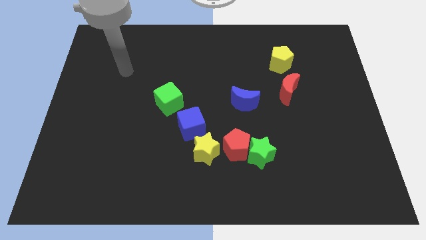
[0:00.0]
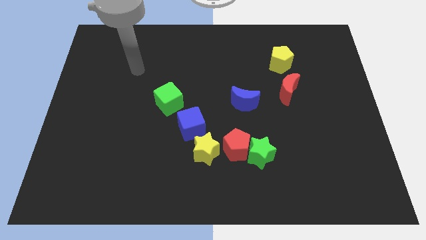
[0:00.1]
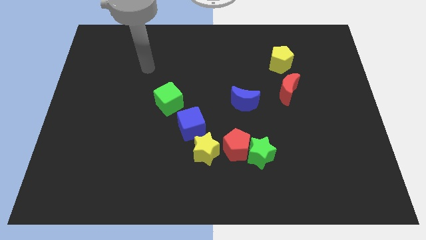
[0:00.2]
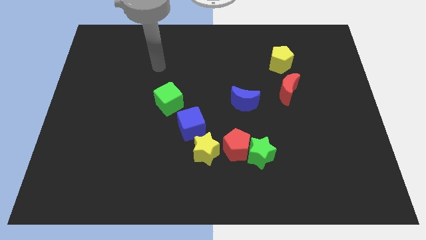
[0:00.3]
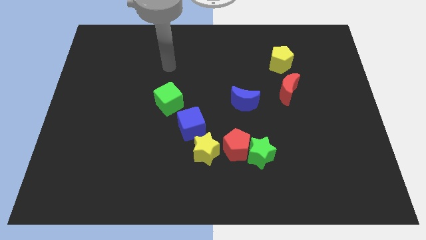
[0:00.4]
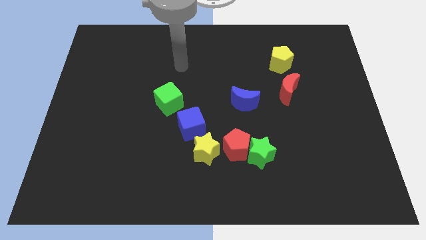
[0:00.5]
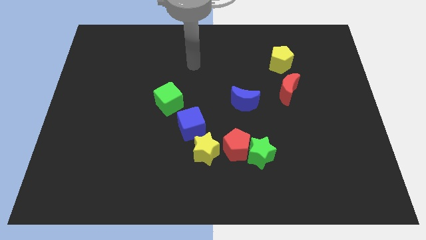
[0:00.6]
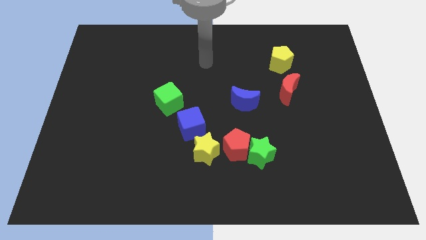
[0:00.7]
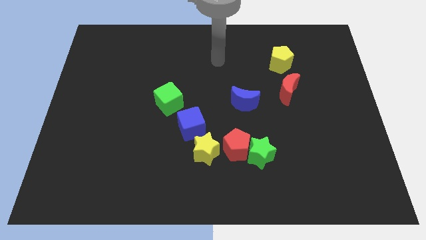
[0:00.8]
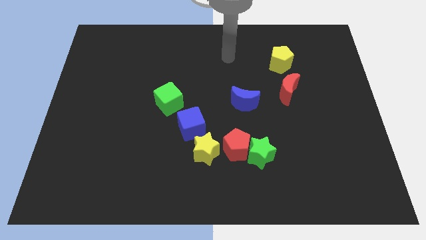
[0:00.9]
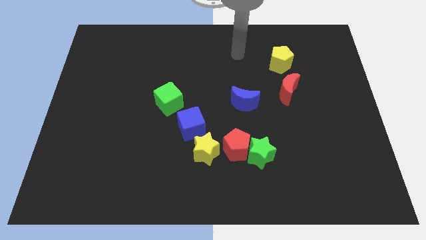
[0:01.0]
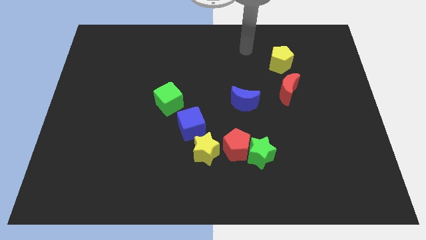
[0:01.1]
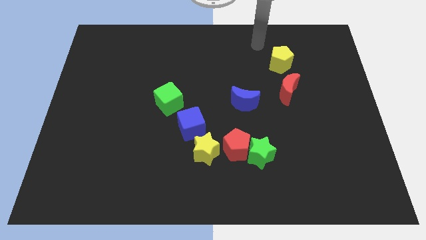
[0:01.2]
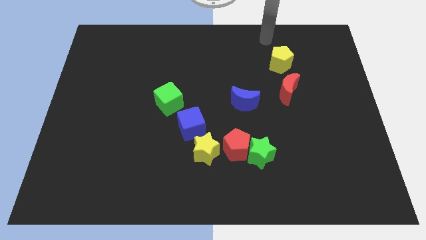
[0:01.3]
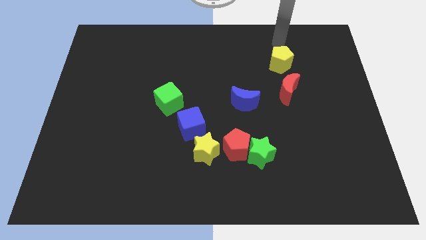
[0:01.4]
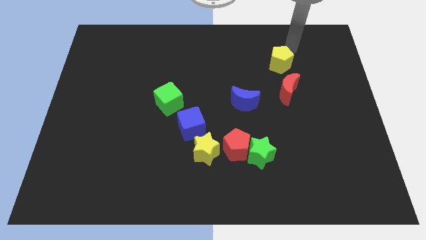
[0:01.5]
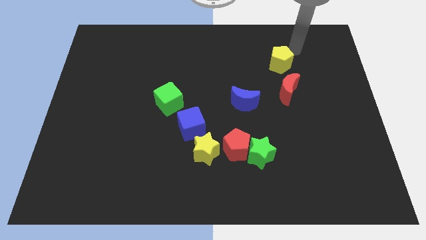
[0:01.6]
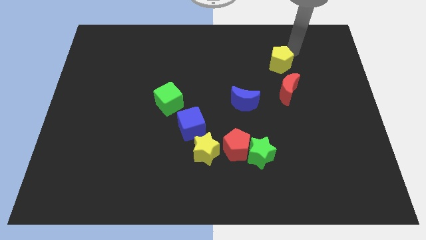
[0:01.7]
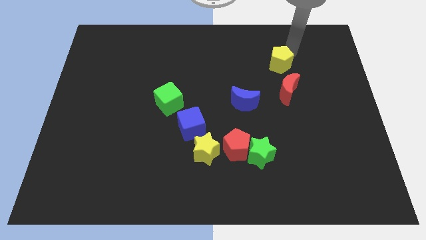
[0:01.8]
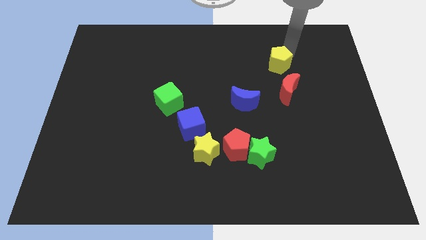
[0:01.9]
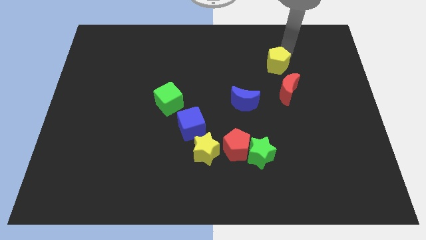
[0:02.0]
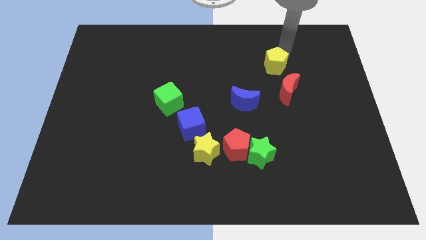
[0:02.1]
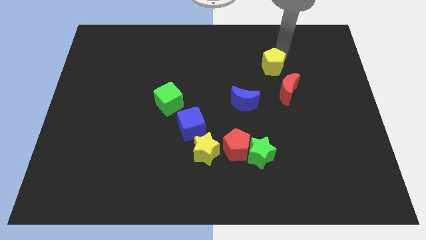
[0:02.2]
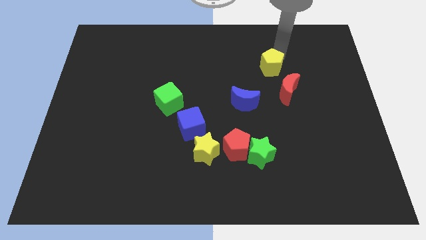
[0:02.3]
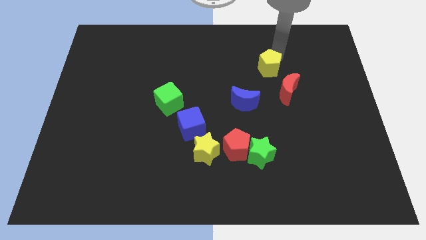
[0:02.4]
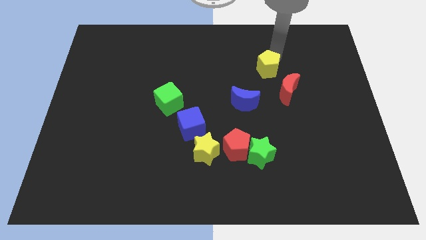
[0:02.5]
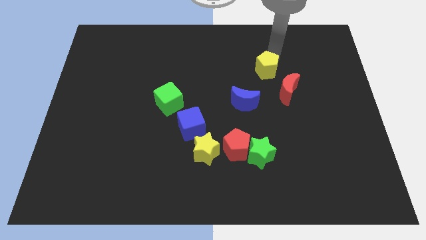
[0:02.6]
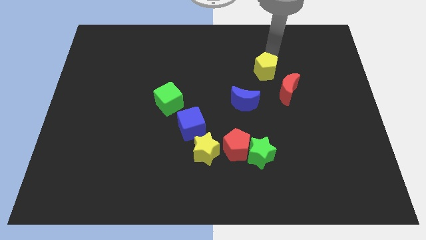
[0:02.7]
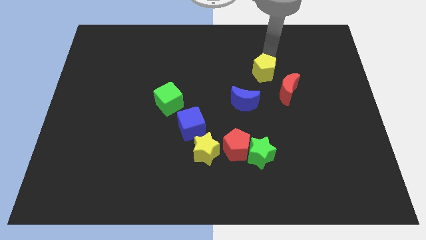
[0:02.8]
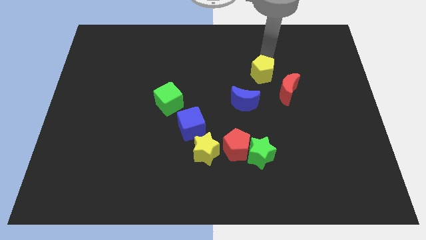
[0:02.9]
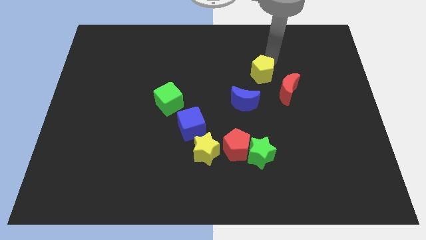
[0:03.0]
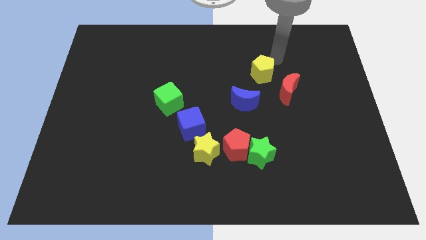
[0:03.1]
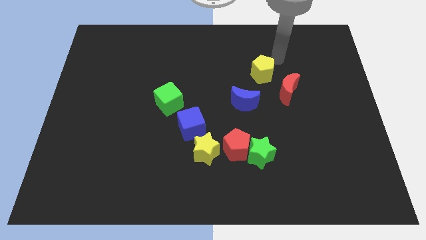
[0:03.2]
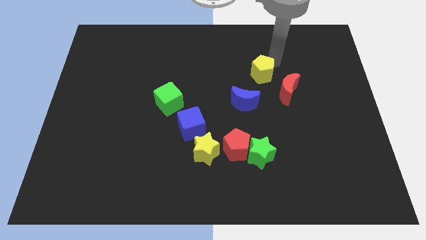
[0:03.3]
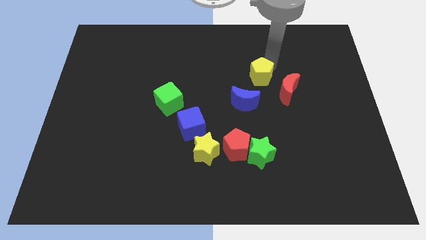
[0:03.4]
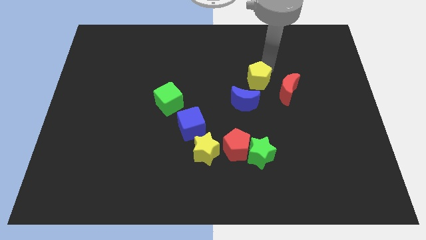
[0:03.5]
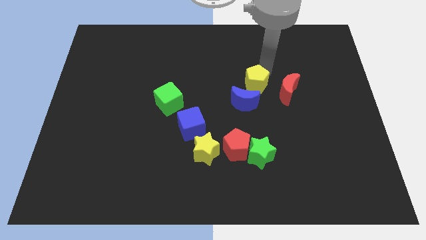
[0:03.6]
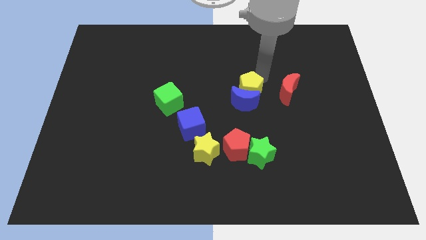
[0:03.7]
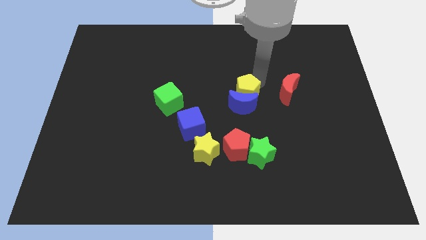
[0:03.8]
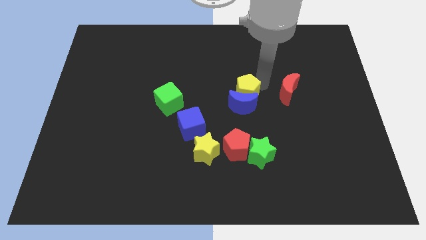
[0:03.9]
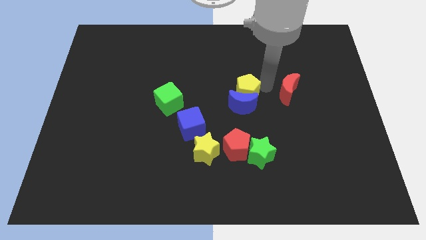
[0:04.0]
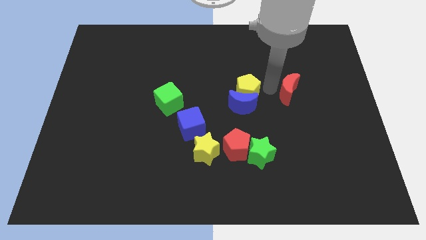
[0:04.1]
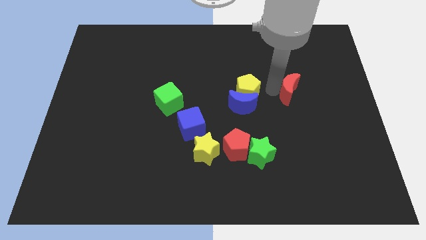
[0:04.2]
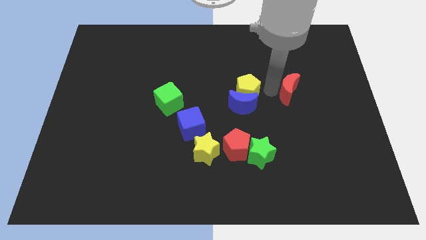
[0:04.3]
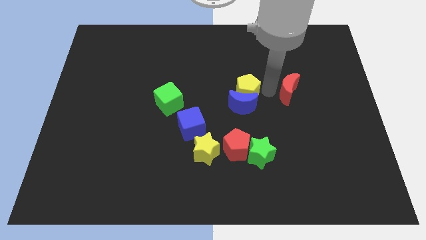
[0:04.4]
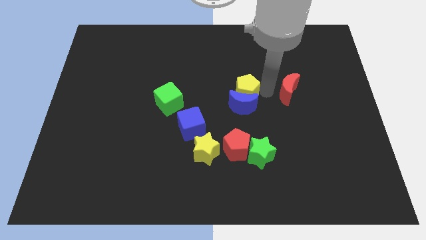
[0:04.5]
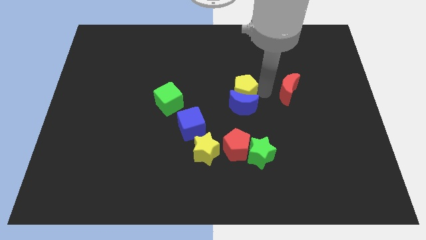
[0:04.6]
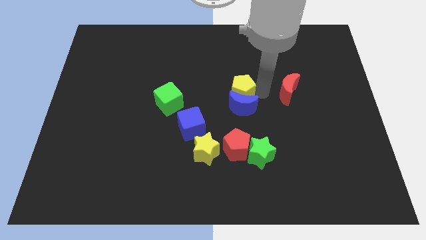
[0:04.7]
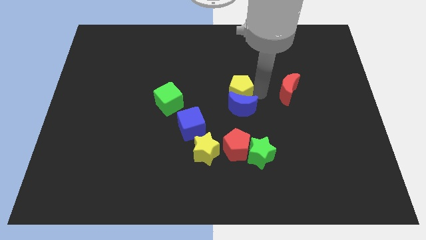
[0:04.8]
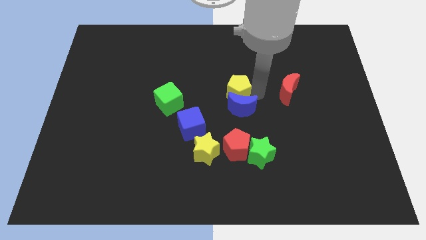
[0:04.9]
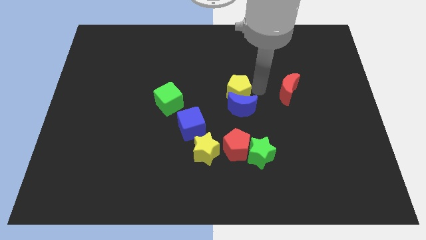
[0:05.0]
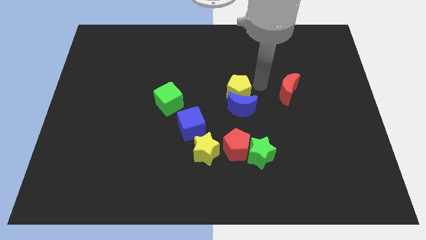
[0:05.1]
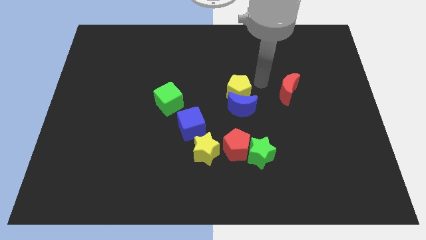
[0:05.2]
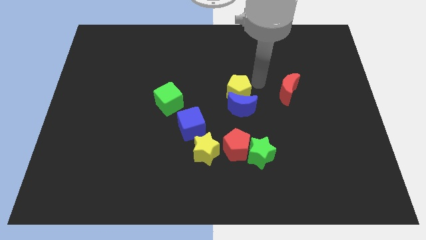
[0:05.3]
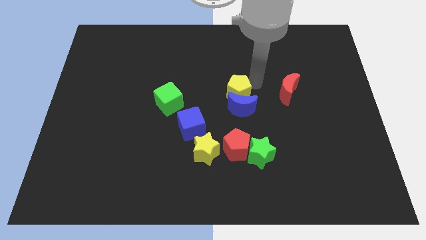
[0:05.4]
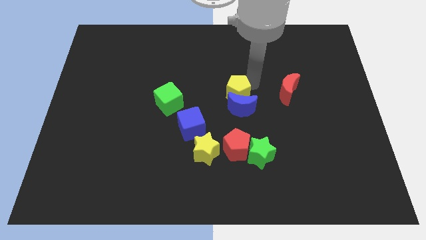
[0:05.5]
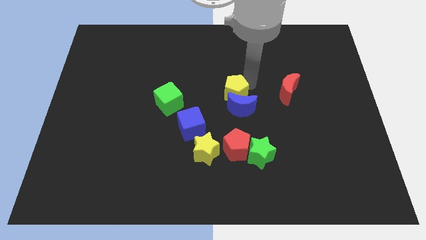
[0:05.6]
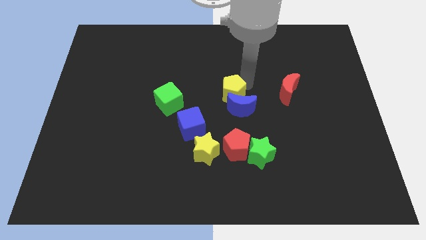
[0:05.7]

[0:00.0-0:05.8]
slide the yellow pentagon right of the green cube

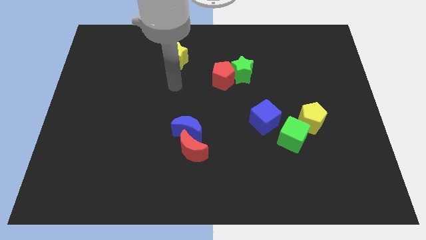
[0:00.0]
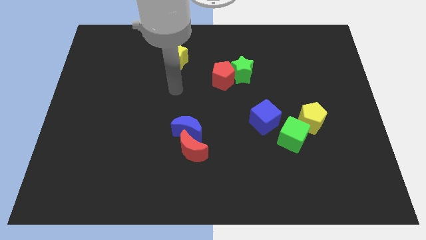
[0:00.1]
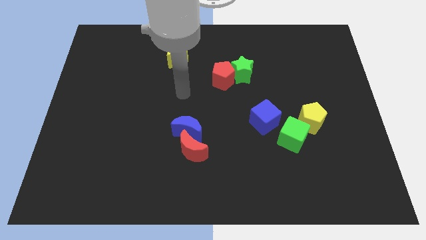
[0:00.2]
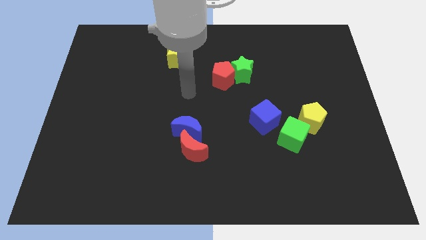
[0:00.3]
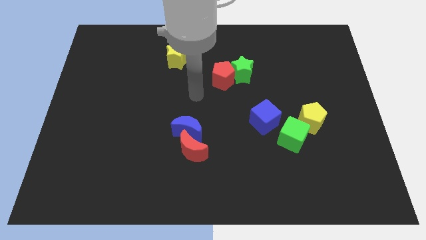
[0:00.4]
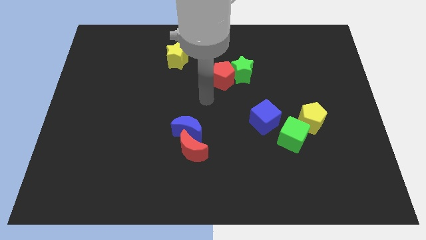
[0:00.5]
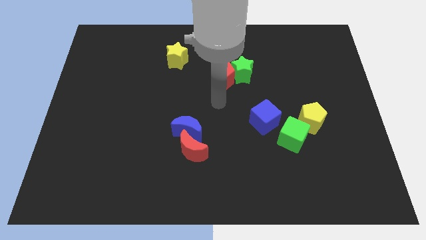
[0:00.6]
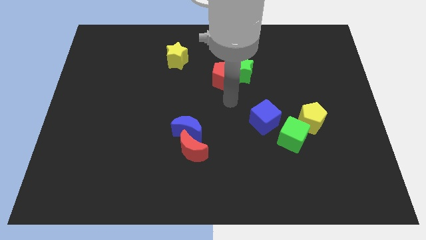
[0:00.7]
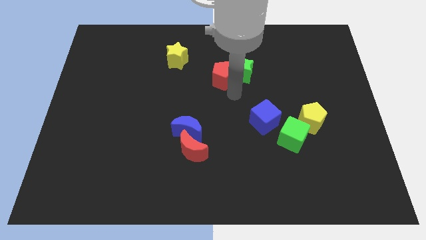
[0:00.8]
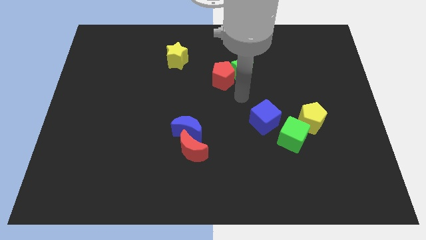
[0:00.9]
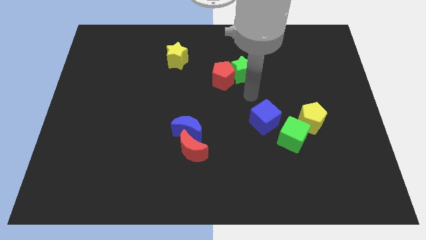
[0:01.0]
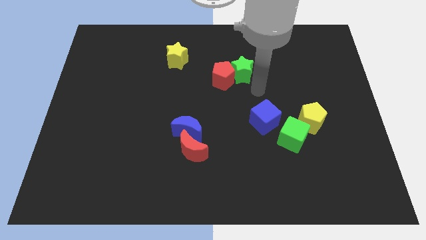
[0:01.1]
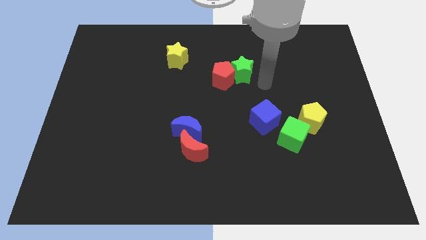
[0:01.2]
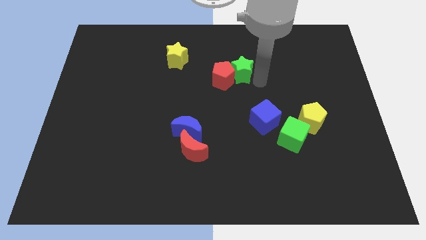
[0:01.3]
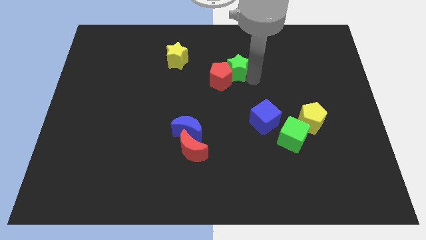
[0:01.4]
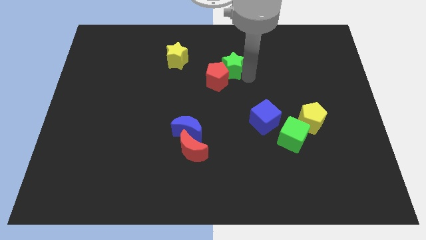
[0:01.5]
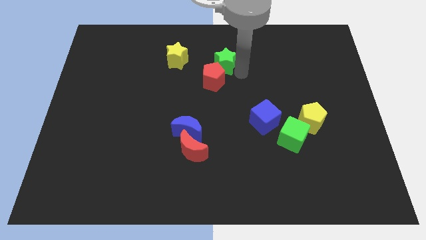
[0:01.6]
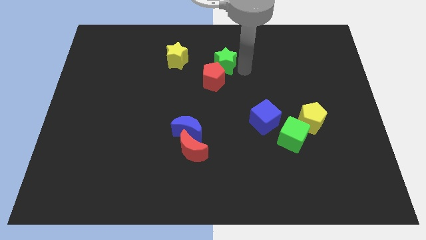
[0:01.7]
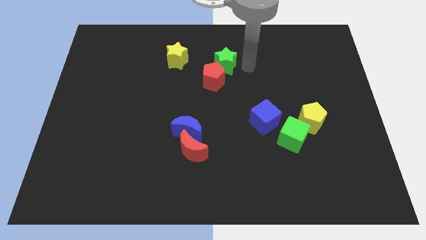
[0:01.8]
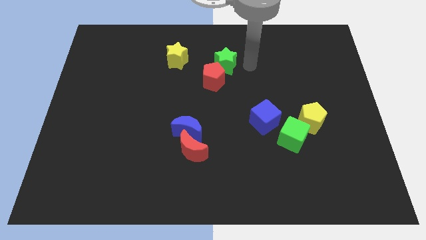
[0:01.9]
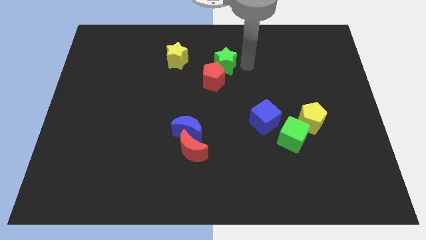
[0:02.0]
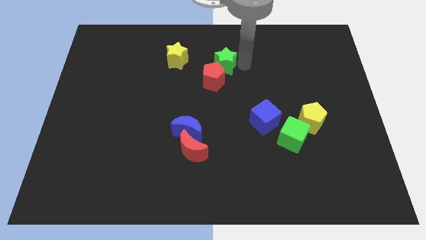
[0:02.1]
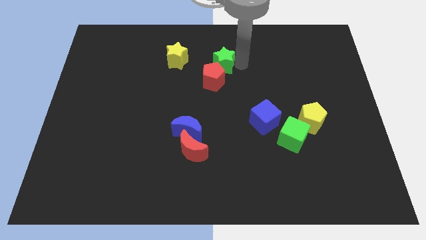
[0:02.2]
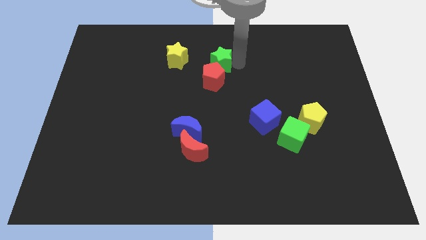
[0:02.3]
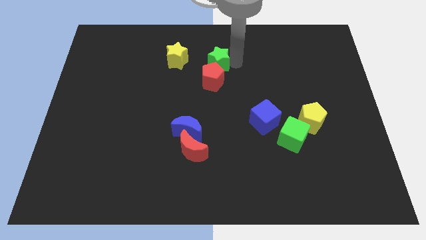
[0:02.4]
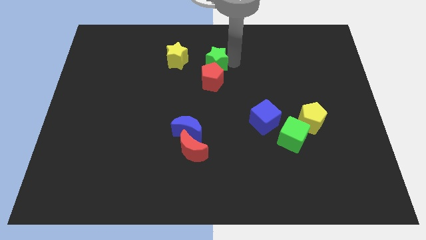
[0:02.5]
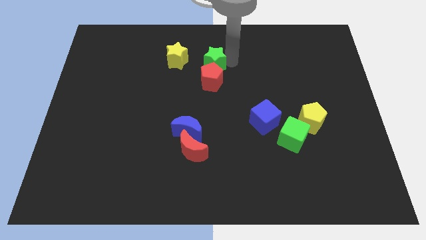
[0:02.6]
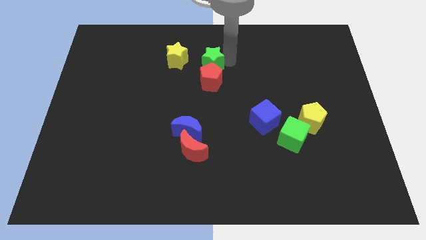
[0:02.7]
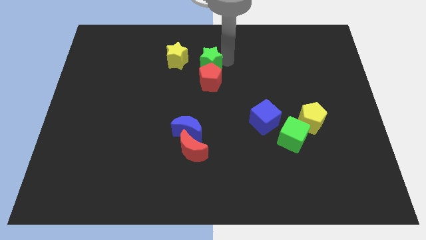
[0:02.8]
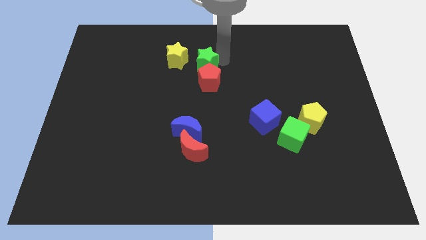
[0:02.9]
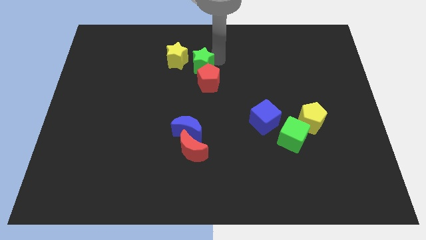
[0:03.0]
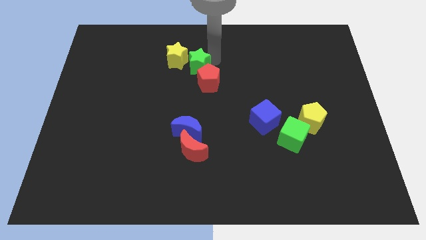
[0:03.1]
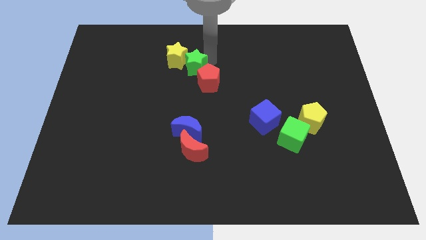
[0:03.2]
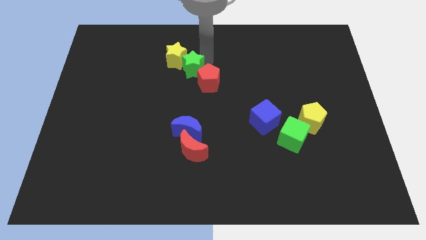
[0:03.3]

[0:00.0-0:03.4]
put the green star to the bottom side of the yellow star
